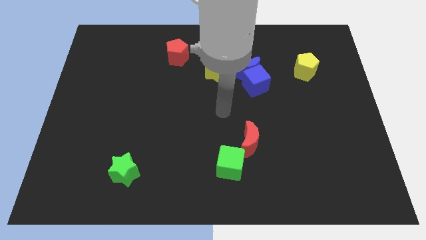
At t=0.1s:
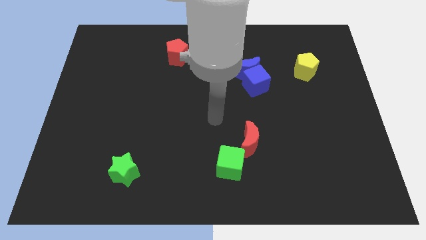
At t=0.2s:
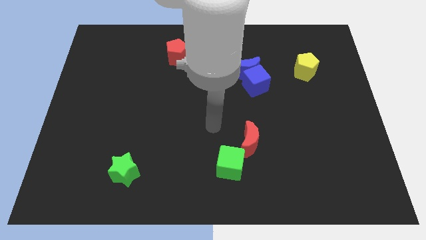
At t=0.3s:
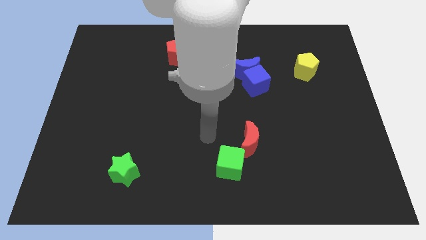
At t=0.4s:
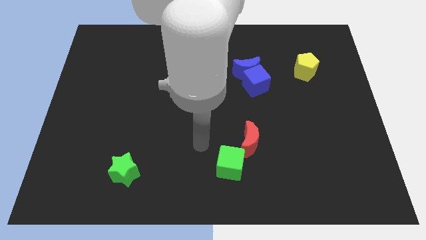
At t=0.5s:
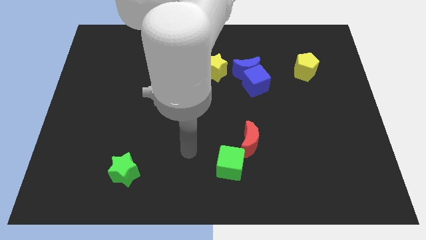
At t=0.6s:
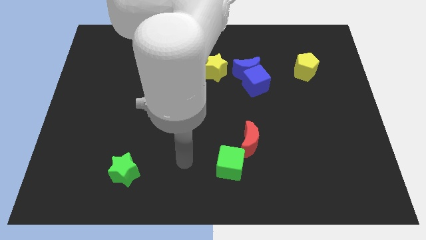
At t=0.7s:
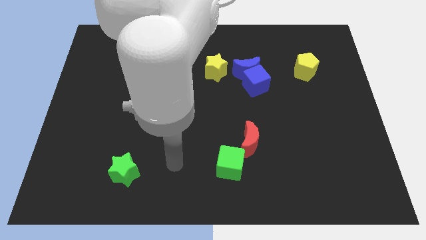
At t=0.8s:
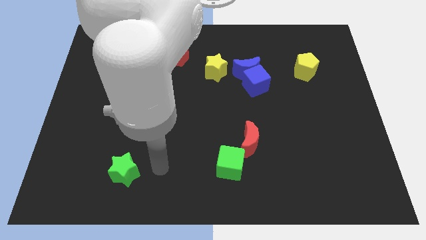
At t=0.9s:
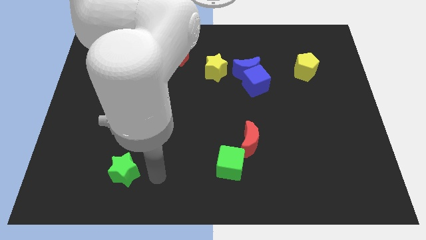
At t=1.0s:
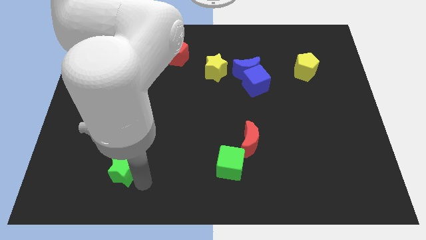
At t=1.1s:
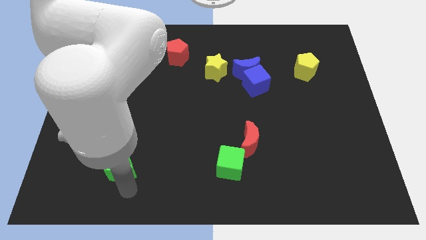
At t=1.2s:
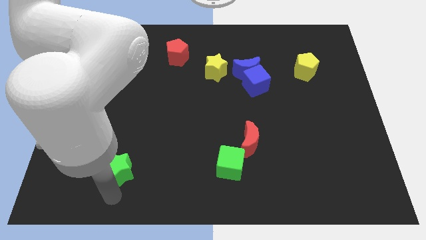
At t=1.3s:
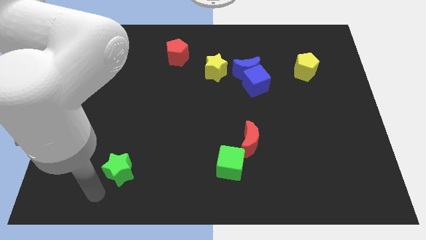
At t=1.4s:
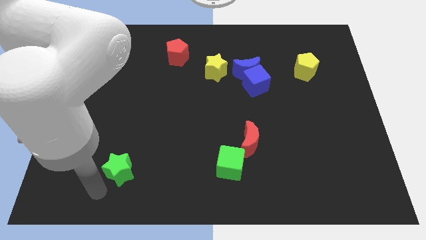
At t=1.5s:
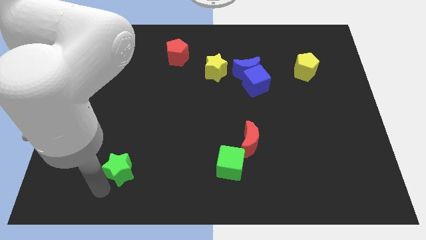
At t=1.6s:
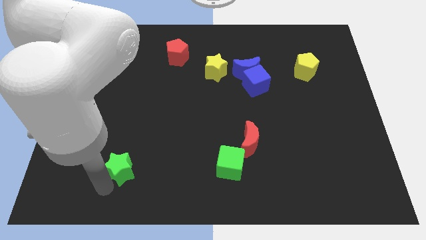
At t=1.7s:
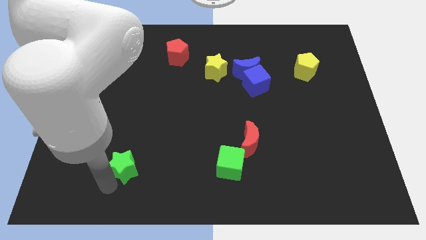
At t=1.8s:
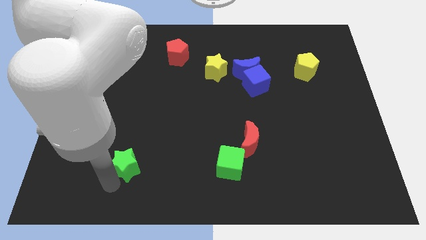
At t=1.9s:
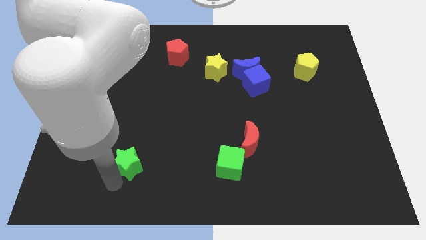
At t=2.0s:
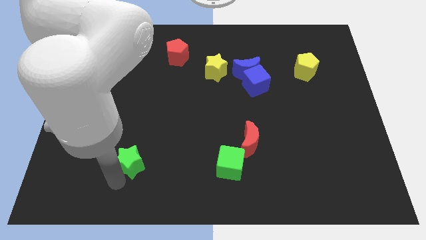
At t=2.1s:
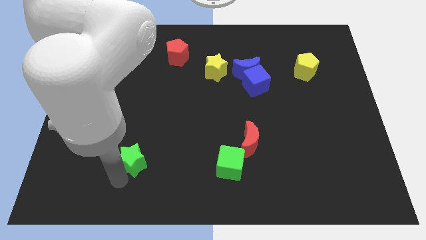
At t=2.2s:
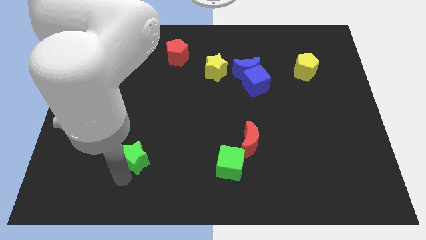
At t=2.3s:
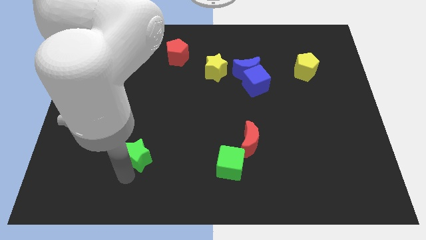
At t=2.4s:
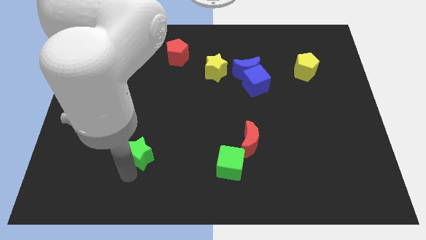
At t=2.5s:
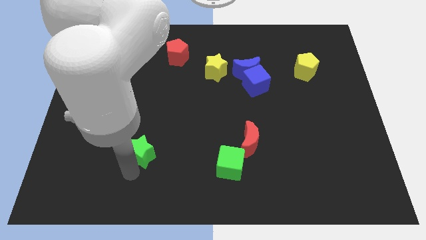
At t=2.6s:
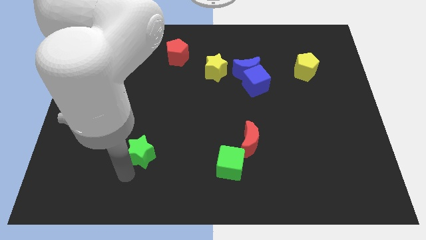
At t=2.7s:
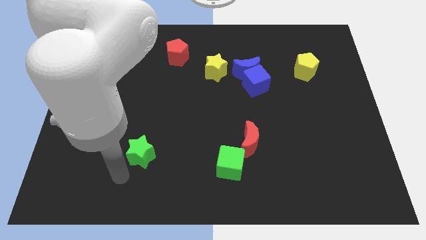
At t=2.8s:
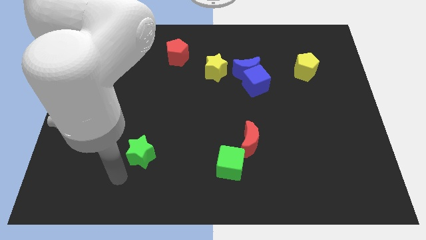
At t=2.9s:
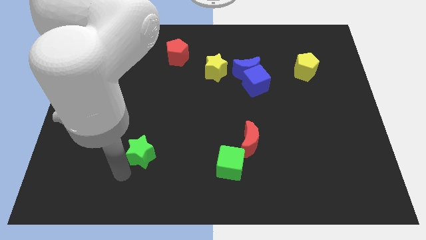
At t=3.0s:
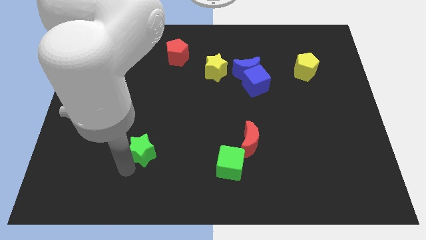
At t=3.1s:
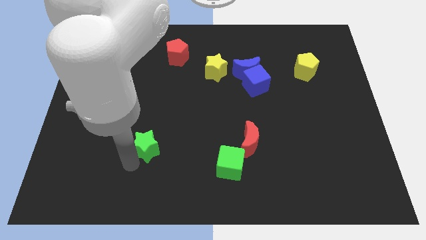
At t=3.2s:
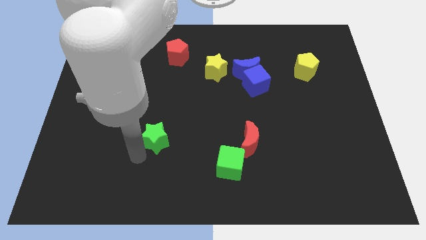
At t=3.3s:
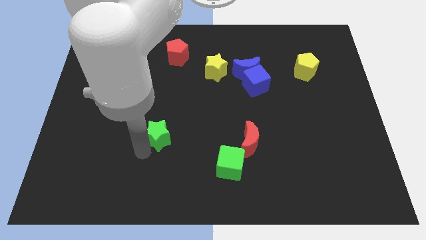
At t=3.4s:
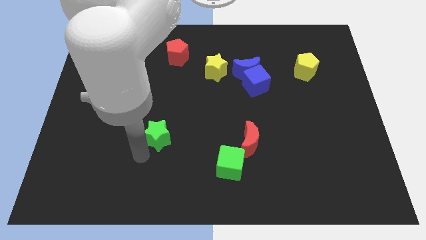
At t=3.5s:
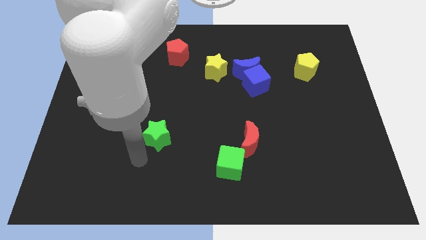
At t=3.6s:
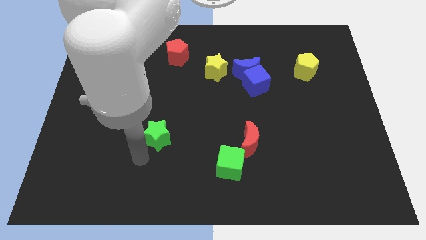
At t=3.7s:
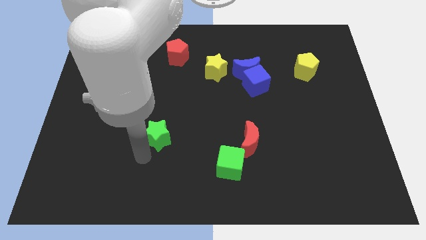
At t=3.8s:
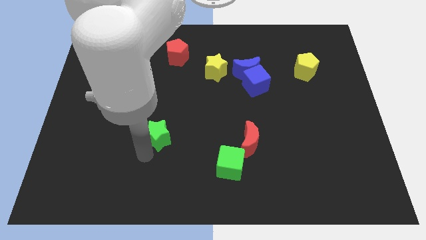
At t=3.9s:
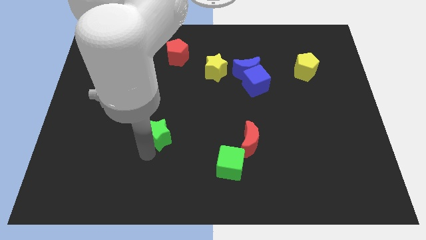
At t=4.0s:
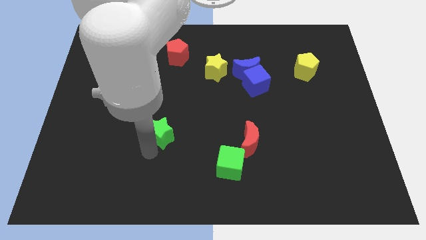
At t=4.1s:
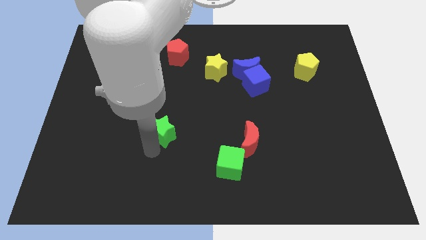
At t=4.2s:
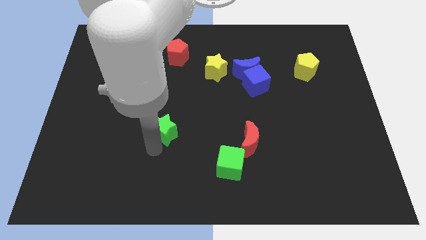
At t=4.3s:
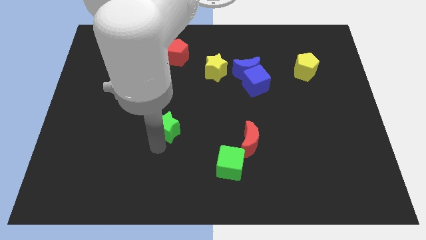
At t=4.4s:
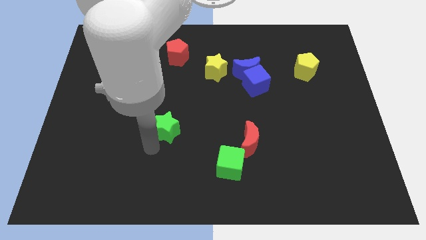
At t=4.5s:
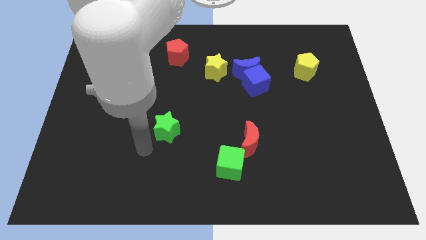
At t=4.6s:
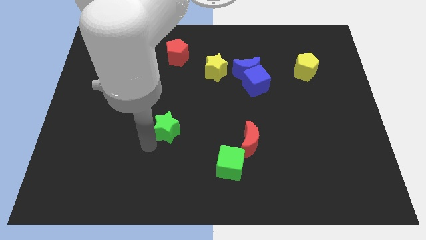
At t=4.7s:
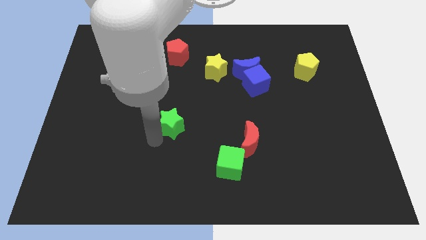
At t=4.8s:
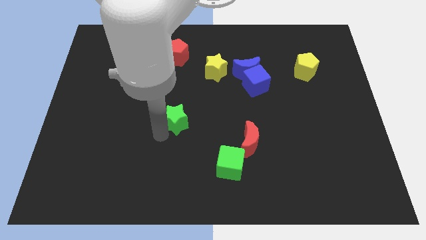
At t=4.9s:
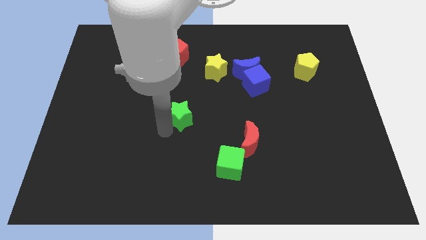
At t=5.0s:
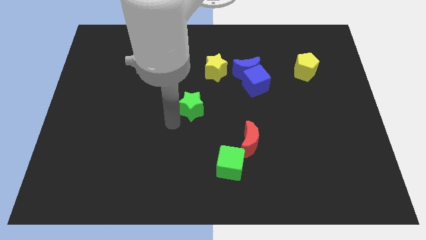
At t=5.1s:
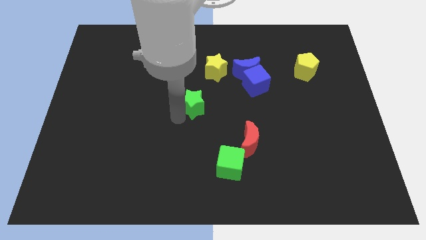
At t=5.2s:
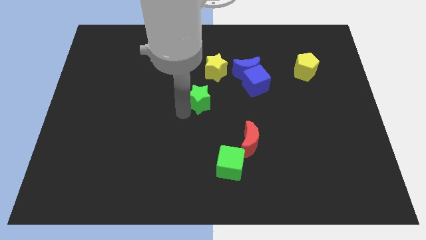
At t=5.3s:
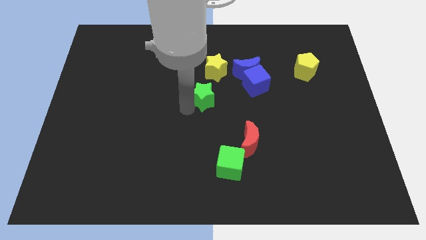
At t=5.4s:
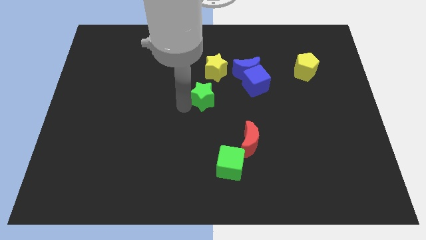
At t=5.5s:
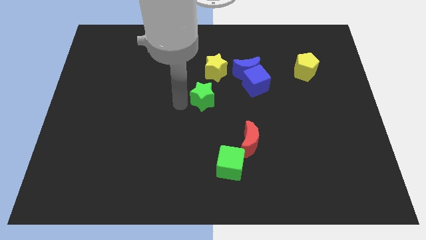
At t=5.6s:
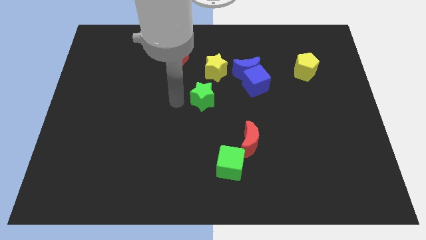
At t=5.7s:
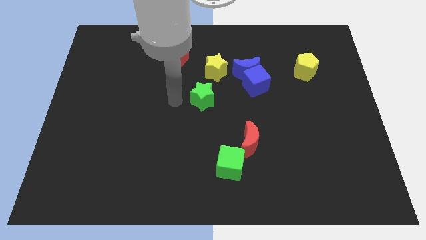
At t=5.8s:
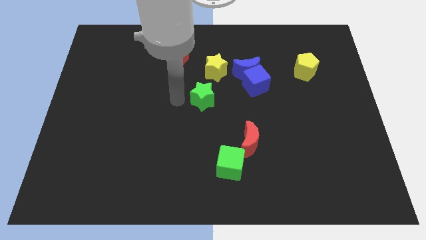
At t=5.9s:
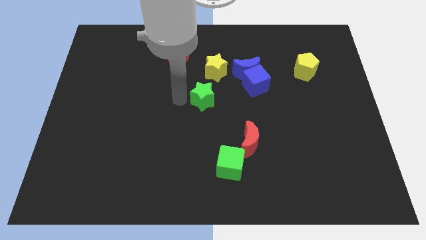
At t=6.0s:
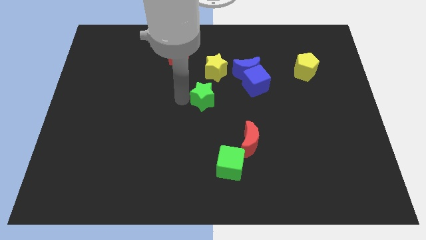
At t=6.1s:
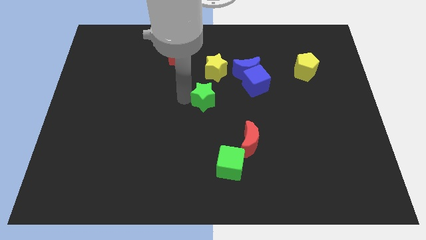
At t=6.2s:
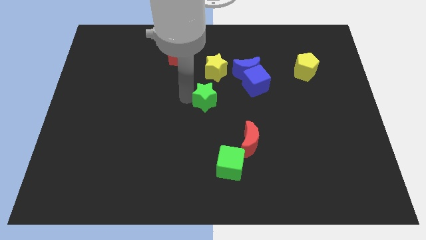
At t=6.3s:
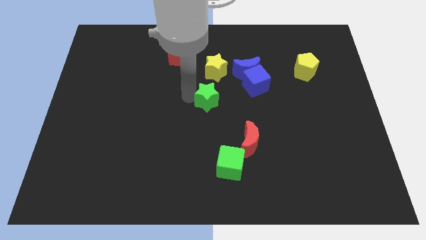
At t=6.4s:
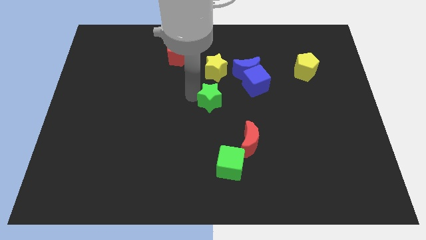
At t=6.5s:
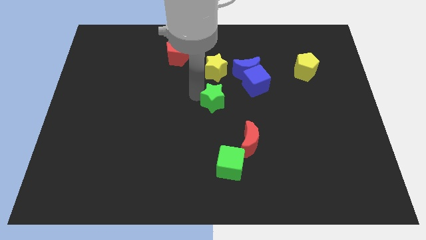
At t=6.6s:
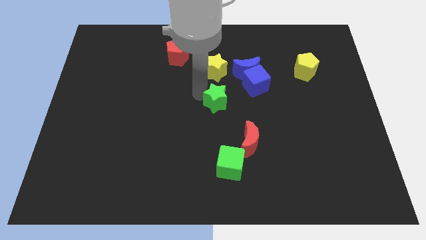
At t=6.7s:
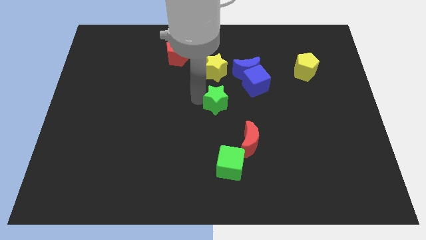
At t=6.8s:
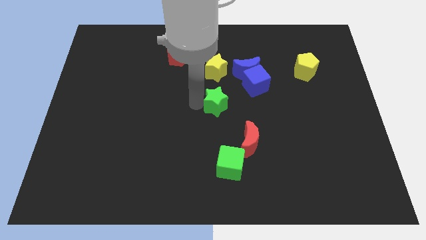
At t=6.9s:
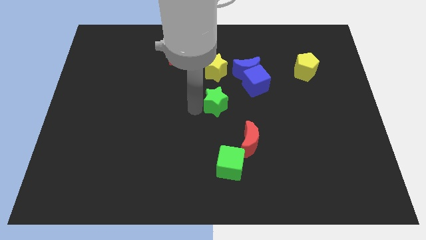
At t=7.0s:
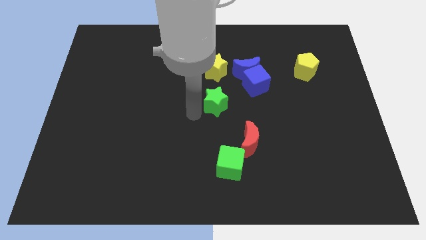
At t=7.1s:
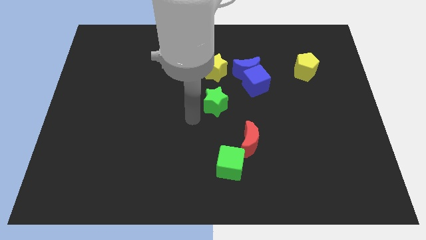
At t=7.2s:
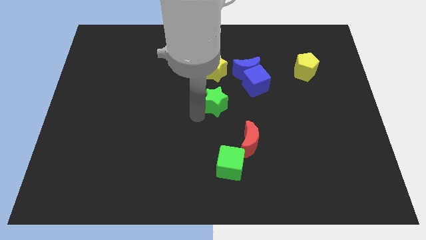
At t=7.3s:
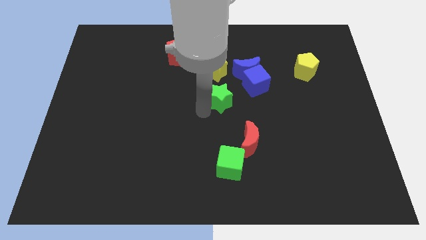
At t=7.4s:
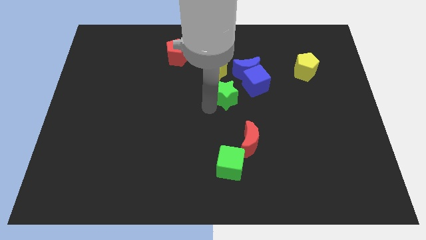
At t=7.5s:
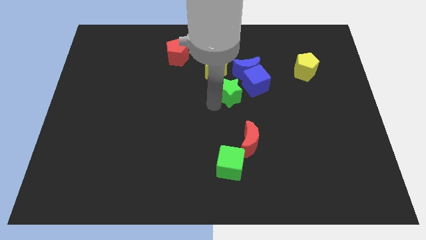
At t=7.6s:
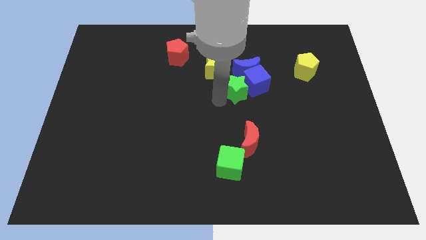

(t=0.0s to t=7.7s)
move the green star next to the blue cube
